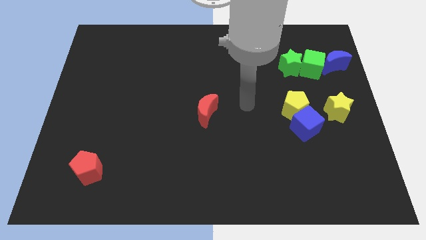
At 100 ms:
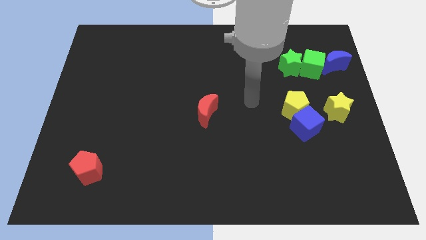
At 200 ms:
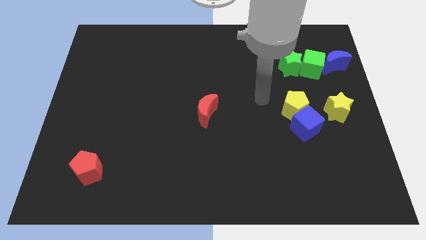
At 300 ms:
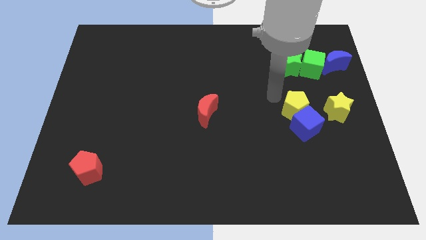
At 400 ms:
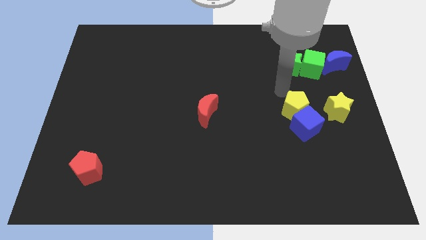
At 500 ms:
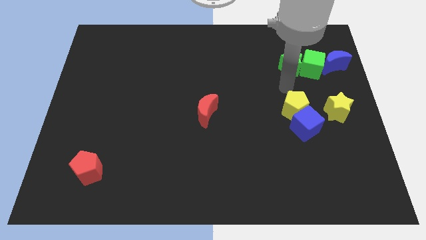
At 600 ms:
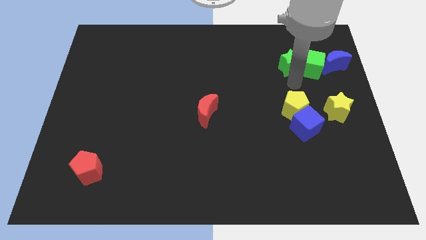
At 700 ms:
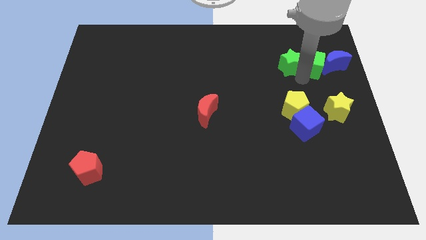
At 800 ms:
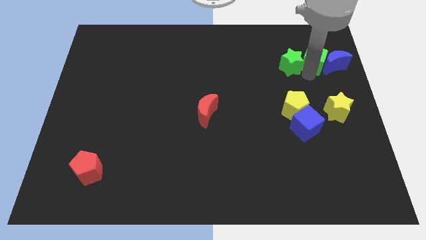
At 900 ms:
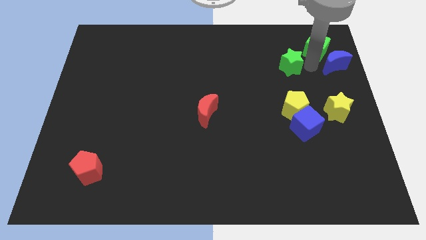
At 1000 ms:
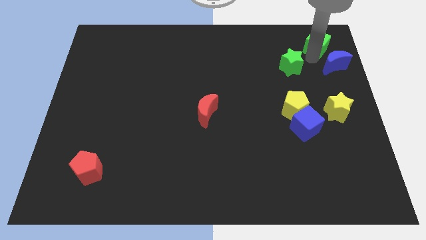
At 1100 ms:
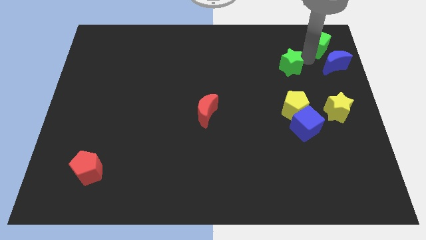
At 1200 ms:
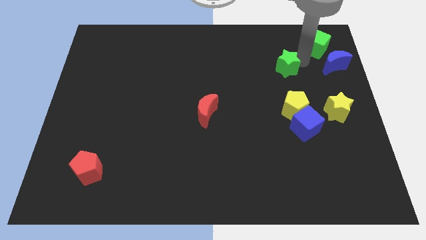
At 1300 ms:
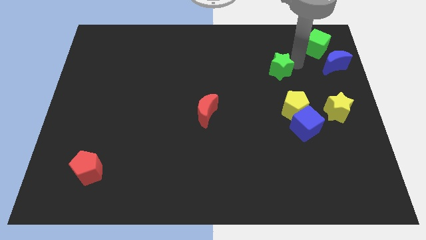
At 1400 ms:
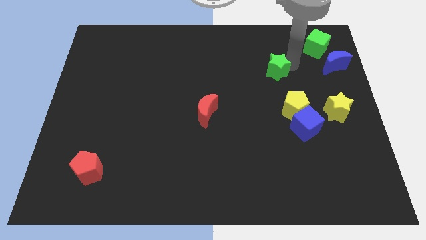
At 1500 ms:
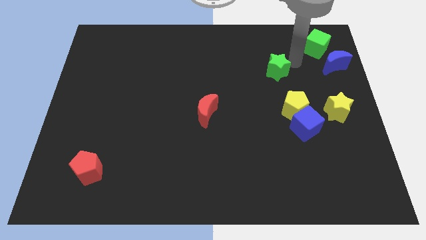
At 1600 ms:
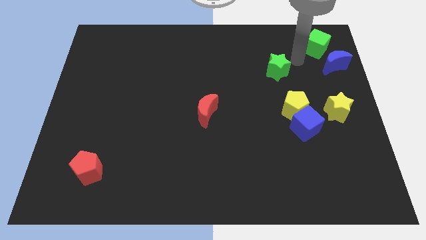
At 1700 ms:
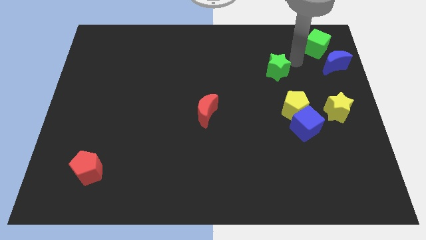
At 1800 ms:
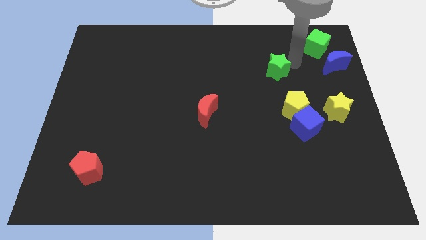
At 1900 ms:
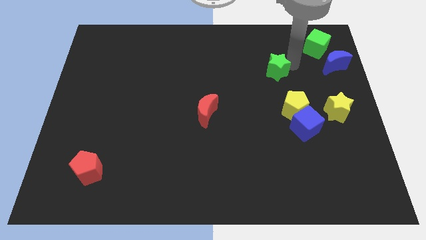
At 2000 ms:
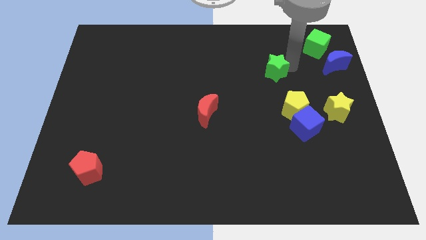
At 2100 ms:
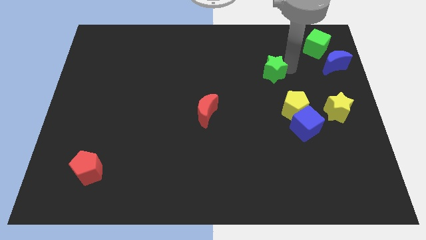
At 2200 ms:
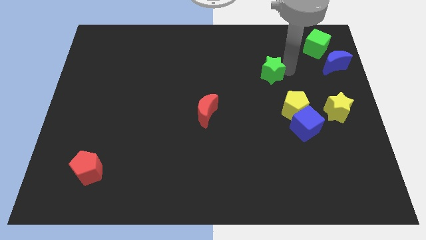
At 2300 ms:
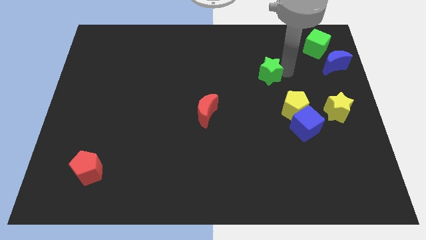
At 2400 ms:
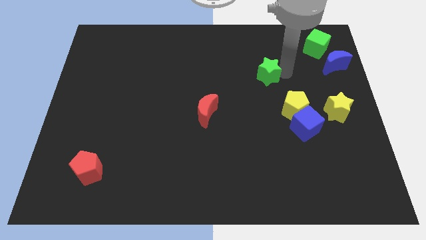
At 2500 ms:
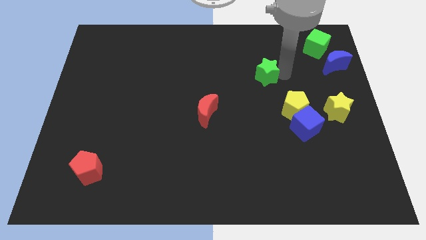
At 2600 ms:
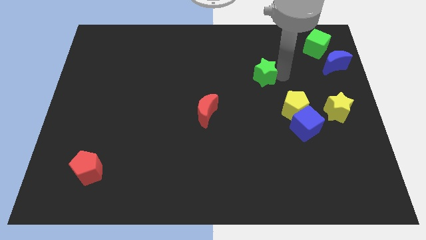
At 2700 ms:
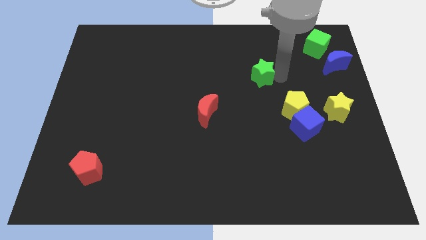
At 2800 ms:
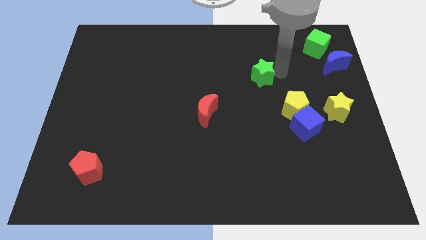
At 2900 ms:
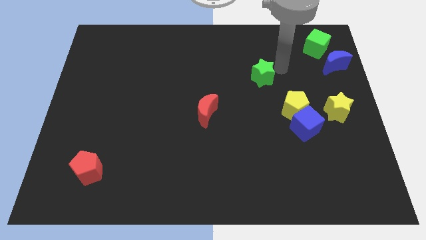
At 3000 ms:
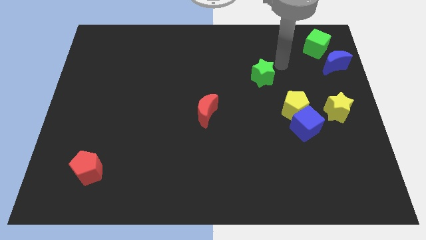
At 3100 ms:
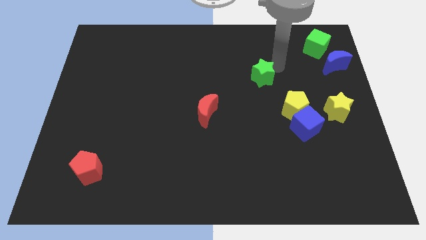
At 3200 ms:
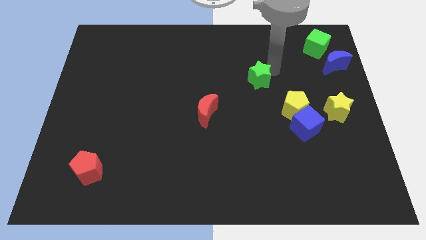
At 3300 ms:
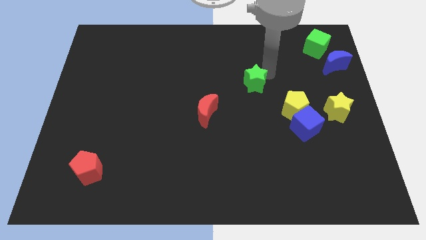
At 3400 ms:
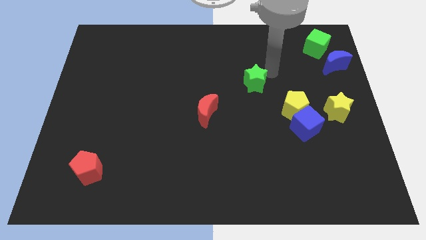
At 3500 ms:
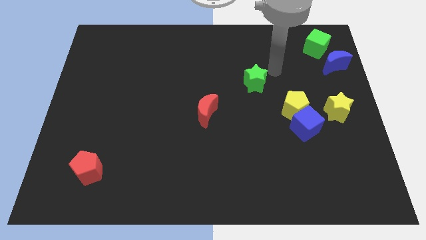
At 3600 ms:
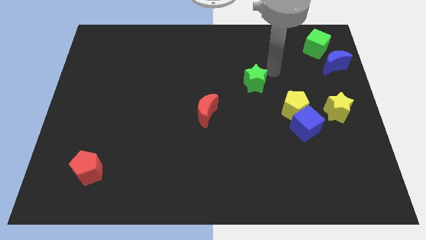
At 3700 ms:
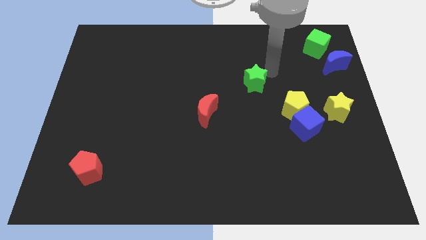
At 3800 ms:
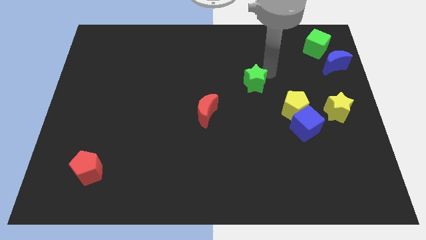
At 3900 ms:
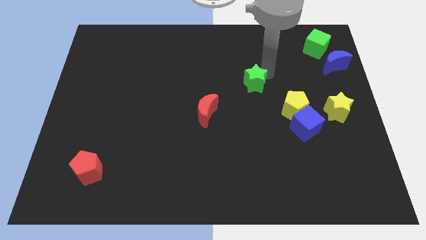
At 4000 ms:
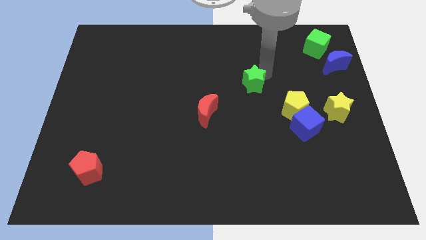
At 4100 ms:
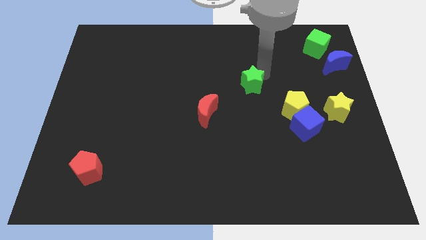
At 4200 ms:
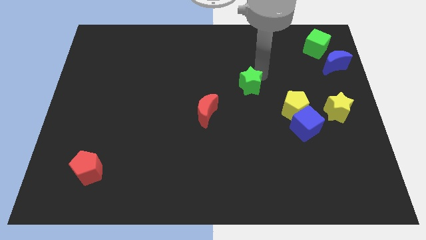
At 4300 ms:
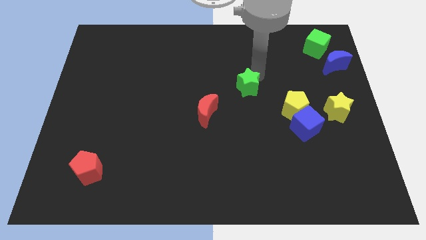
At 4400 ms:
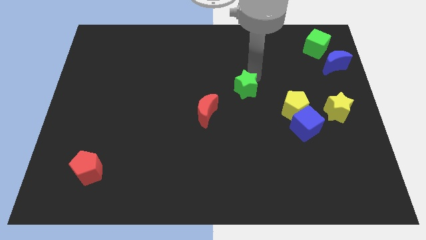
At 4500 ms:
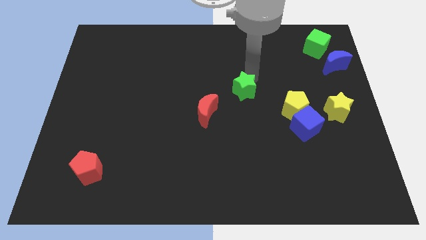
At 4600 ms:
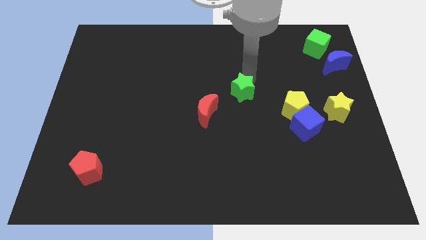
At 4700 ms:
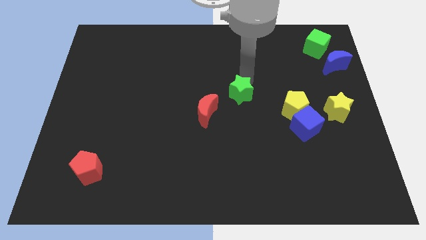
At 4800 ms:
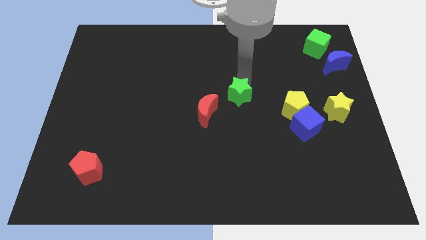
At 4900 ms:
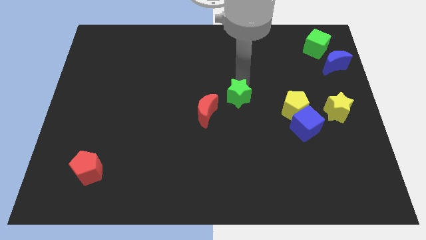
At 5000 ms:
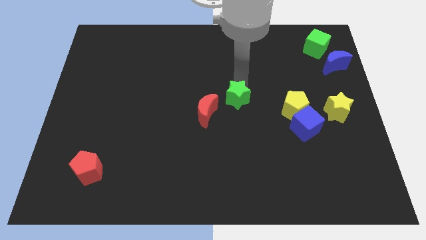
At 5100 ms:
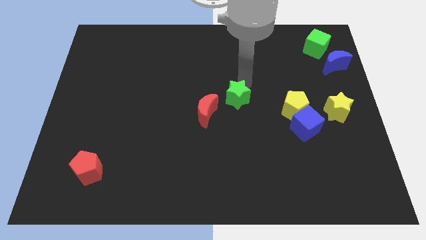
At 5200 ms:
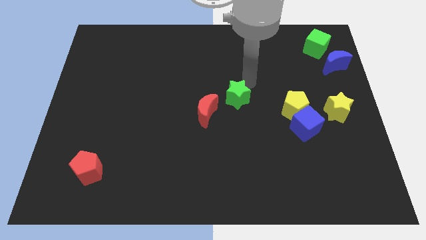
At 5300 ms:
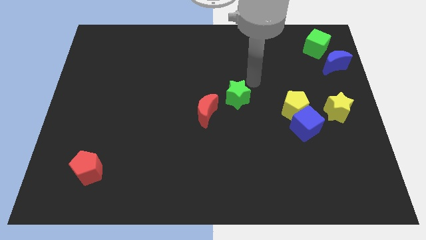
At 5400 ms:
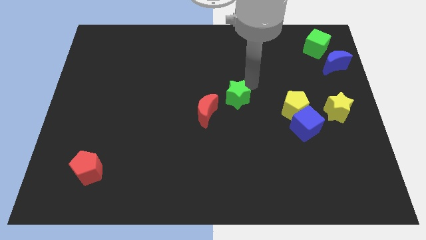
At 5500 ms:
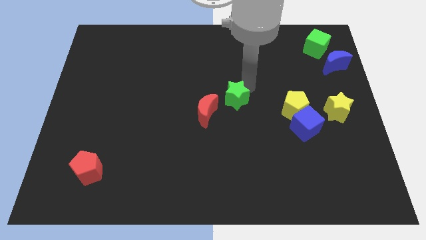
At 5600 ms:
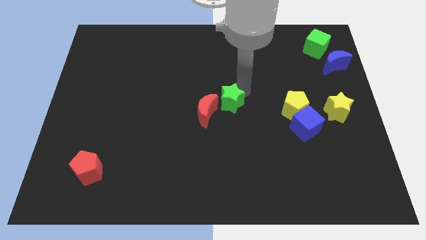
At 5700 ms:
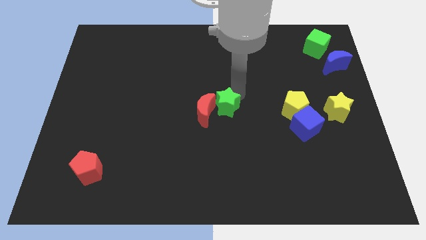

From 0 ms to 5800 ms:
push the green star down and left

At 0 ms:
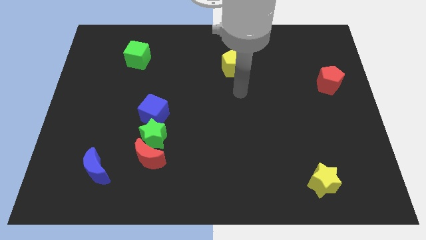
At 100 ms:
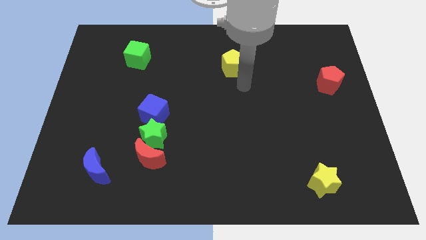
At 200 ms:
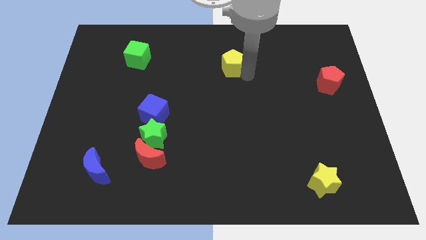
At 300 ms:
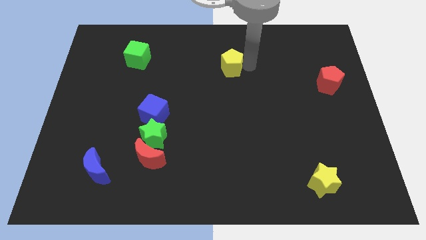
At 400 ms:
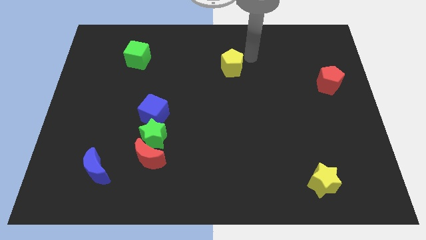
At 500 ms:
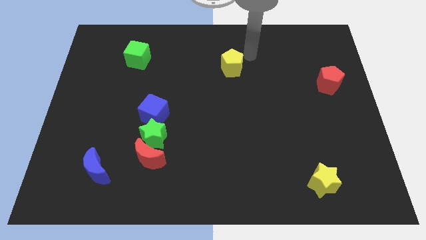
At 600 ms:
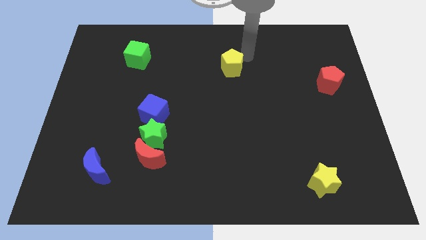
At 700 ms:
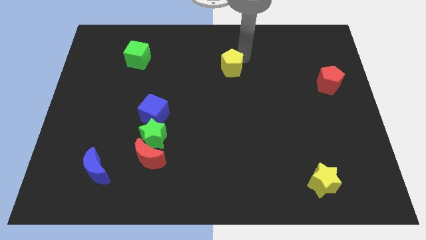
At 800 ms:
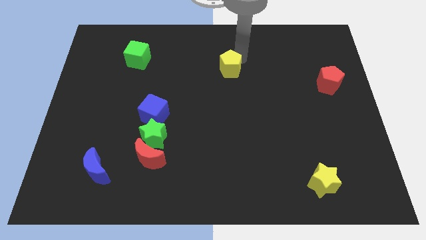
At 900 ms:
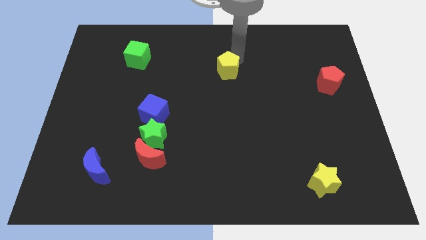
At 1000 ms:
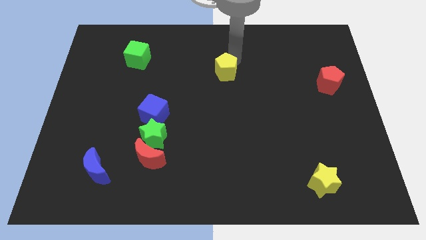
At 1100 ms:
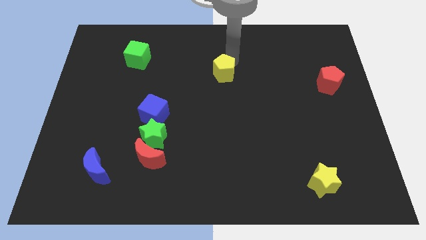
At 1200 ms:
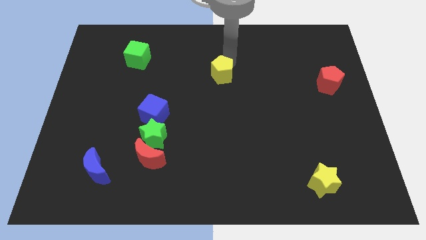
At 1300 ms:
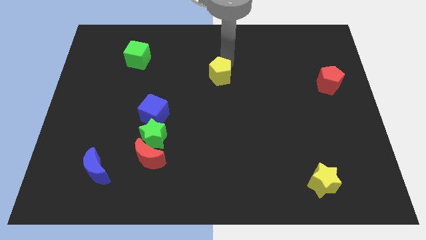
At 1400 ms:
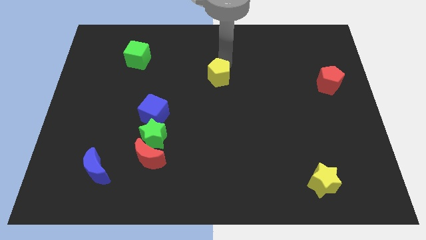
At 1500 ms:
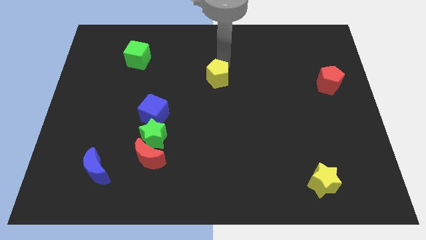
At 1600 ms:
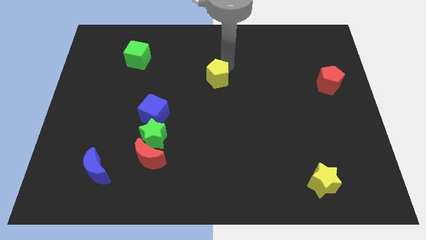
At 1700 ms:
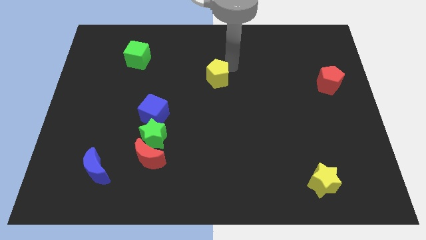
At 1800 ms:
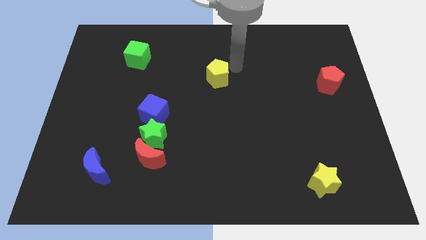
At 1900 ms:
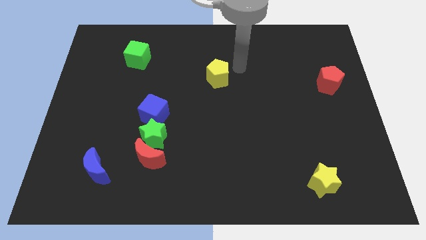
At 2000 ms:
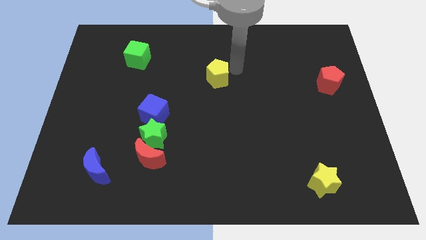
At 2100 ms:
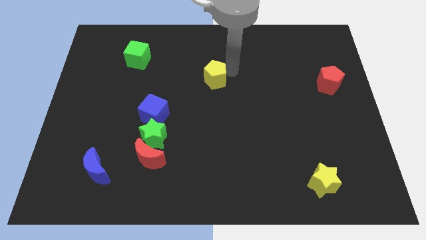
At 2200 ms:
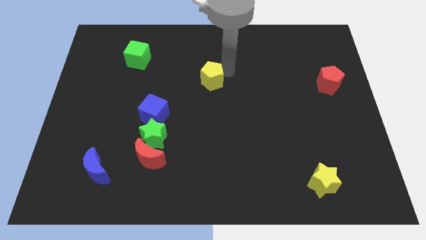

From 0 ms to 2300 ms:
move the yellow pentagon a little bit down and to the left diagonally

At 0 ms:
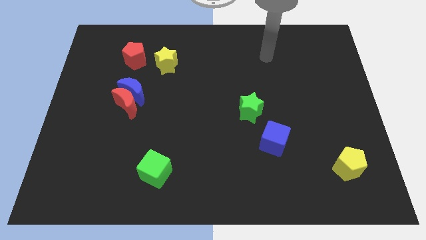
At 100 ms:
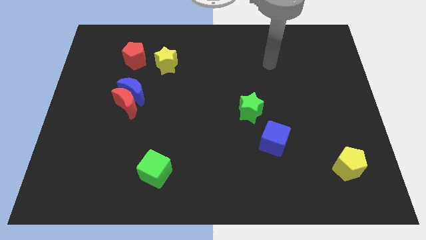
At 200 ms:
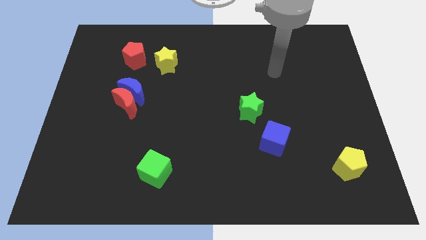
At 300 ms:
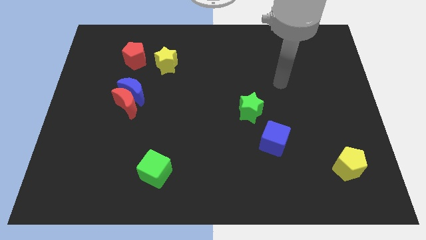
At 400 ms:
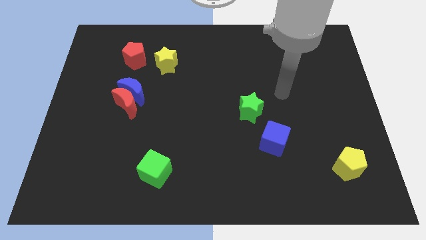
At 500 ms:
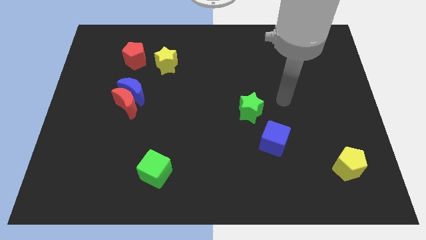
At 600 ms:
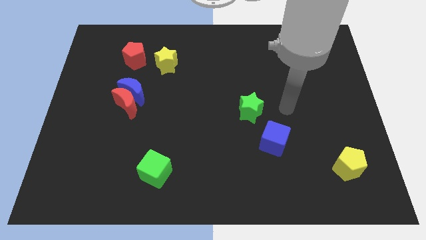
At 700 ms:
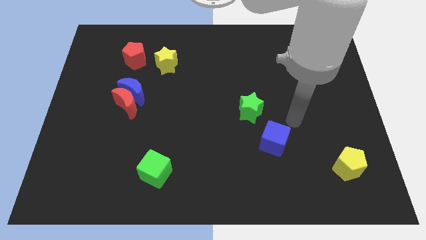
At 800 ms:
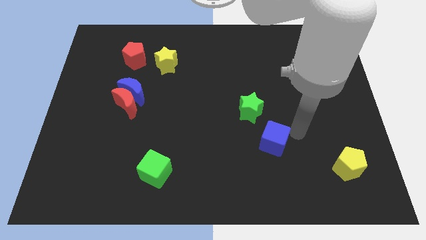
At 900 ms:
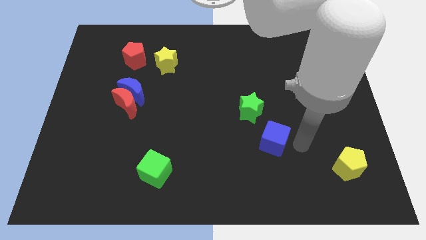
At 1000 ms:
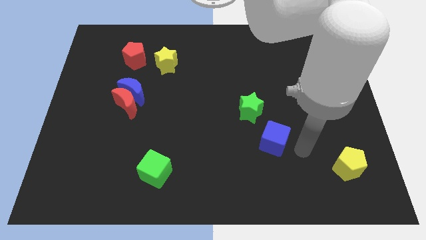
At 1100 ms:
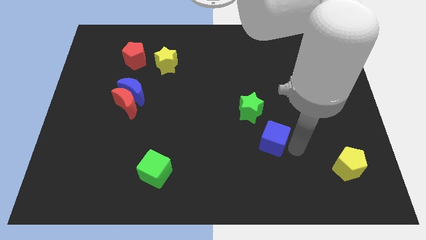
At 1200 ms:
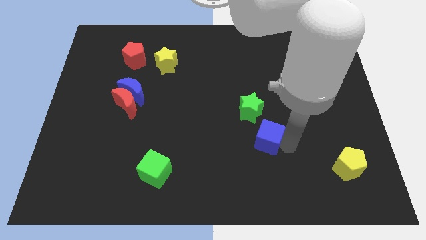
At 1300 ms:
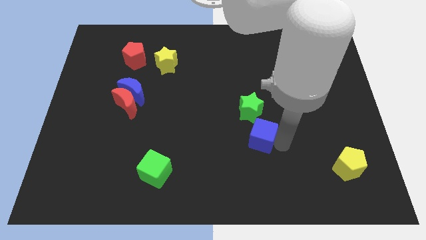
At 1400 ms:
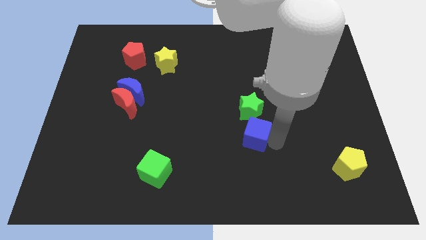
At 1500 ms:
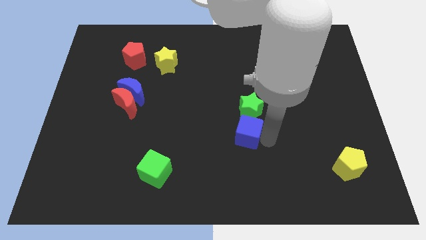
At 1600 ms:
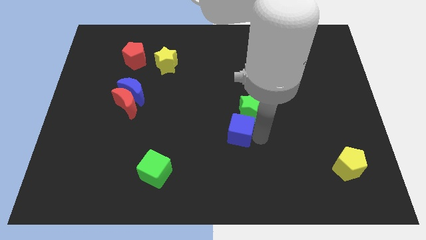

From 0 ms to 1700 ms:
slide the blue cube left somewhat
